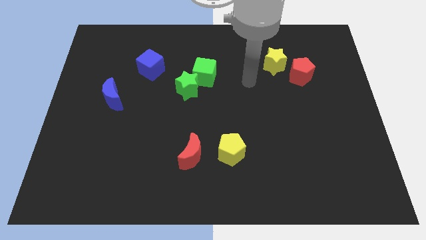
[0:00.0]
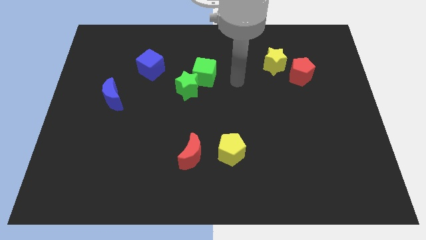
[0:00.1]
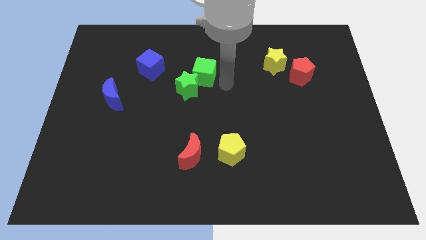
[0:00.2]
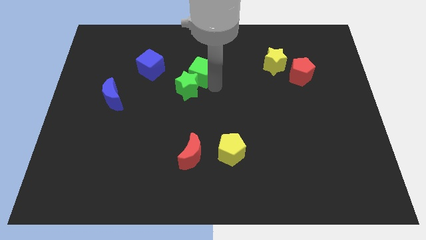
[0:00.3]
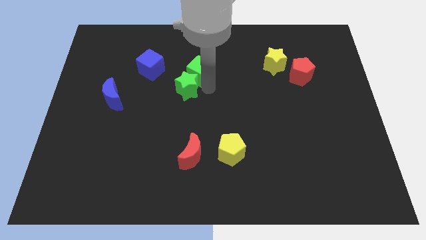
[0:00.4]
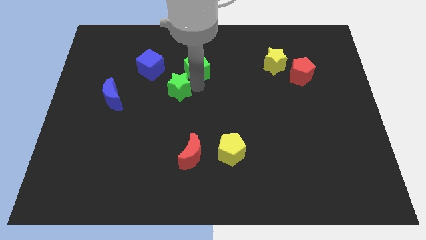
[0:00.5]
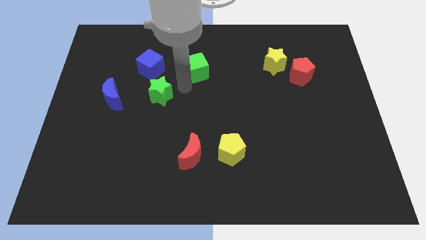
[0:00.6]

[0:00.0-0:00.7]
pull the green cube apart from the green star

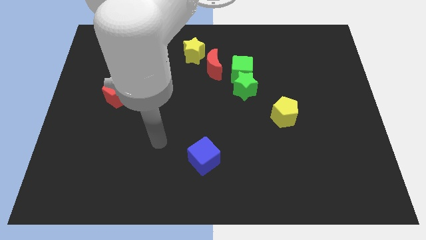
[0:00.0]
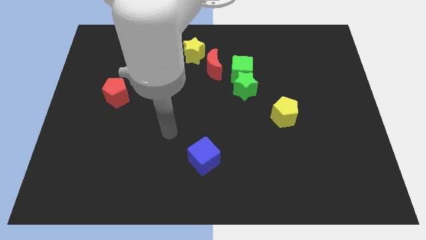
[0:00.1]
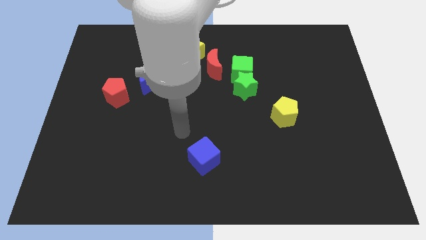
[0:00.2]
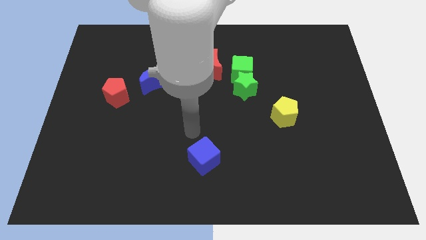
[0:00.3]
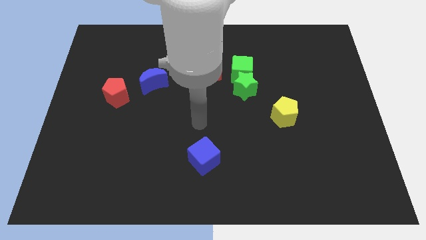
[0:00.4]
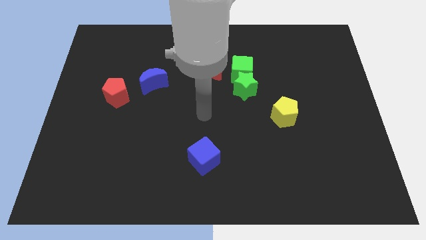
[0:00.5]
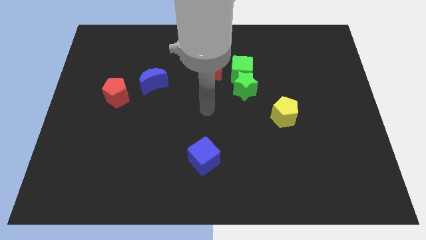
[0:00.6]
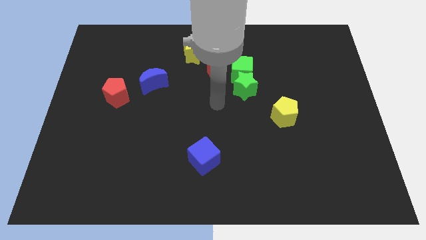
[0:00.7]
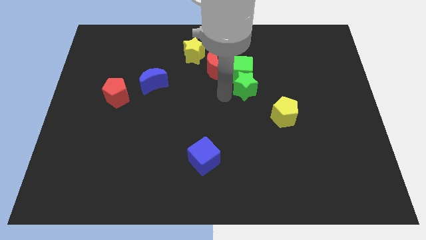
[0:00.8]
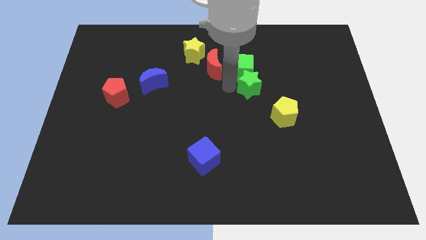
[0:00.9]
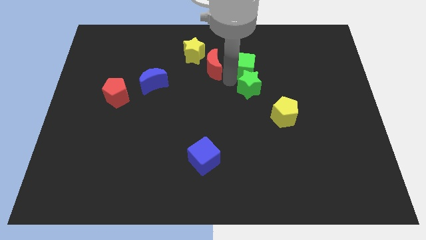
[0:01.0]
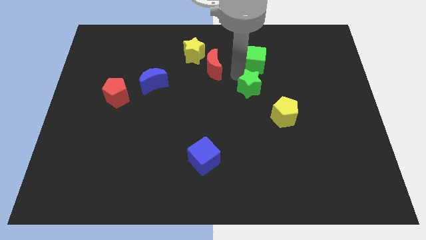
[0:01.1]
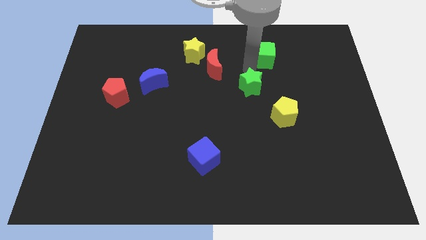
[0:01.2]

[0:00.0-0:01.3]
move the green star away from the green cube

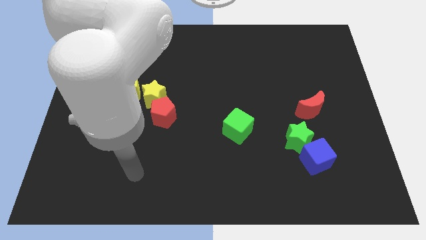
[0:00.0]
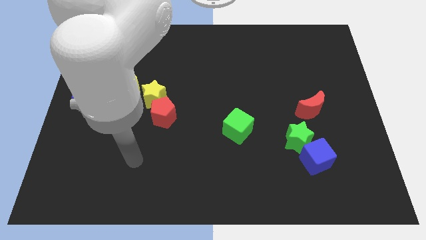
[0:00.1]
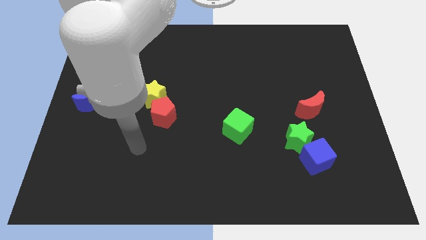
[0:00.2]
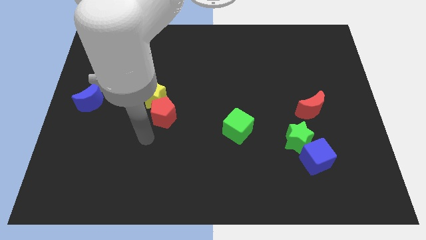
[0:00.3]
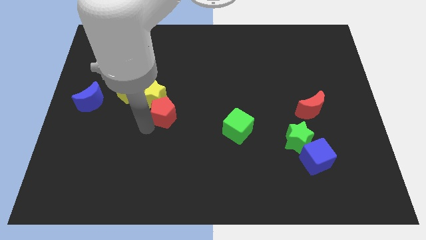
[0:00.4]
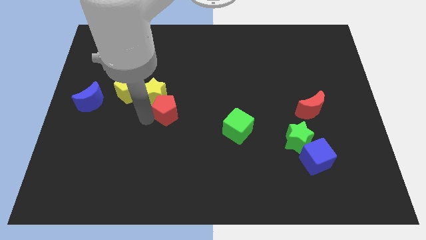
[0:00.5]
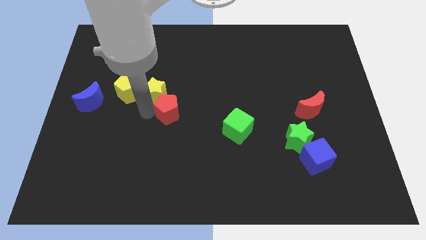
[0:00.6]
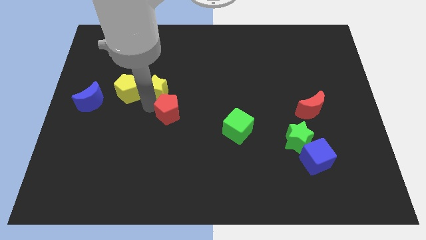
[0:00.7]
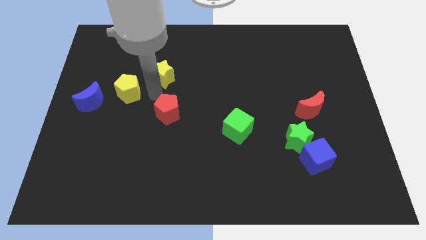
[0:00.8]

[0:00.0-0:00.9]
separate the red pentagon from the yellow star

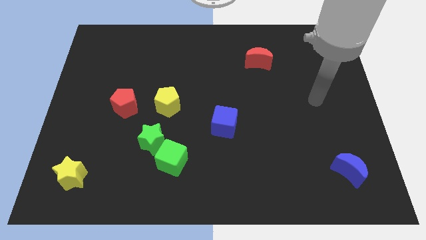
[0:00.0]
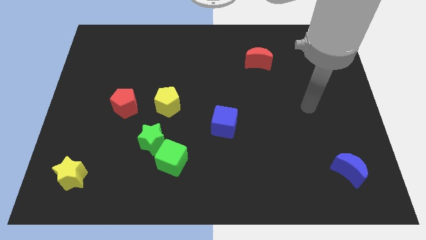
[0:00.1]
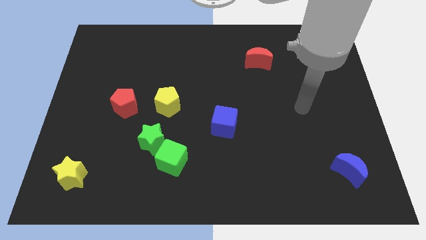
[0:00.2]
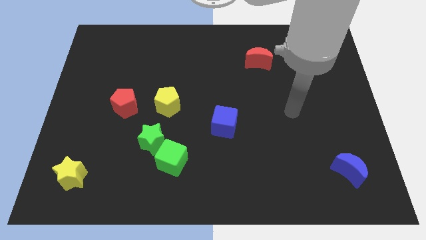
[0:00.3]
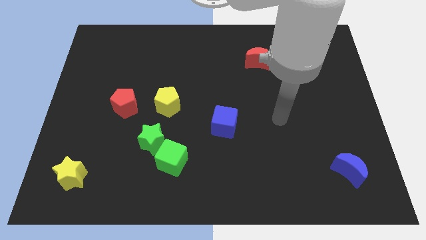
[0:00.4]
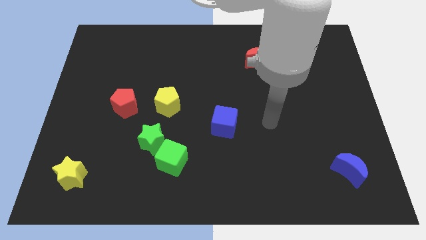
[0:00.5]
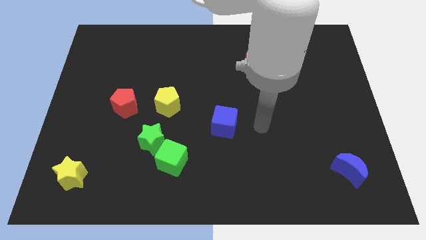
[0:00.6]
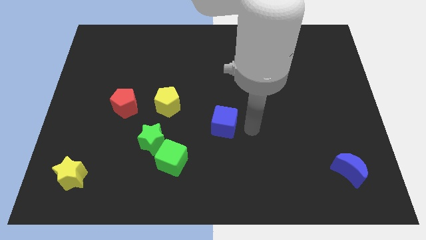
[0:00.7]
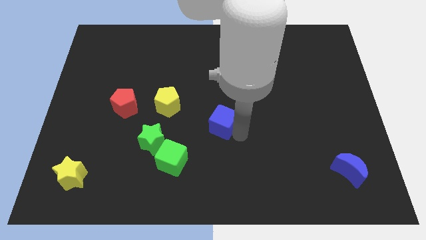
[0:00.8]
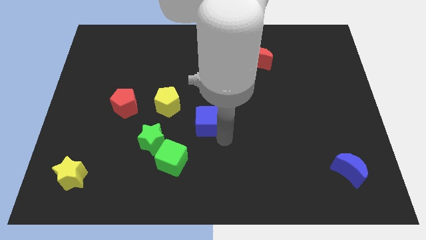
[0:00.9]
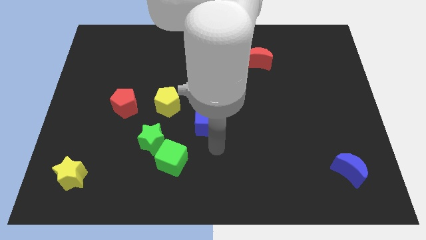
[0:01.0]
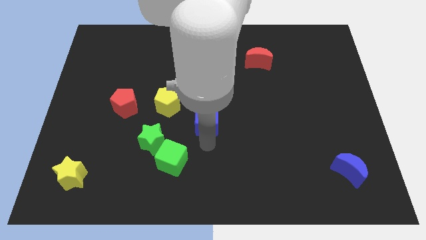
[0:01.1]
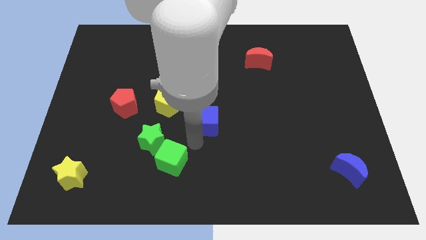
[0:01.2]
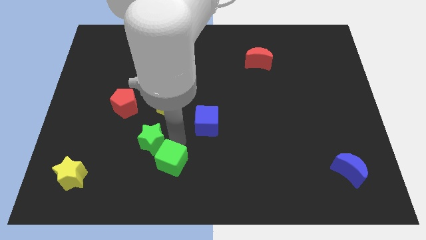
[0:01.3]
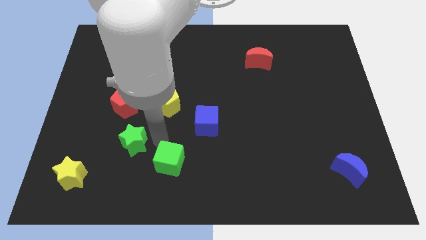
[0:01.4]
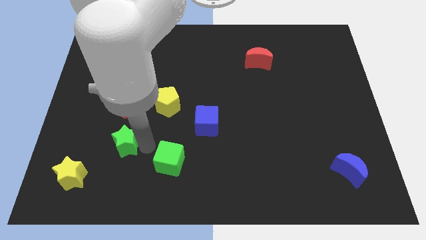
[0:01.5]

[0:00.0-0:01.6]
move the green cube away from the green star

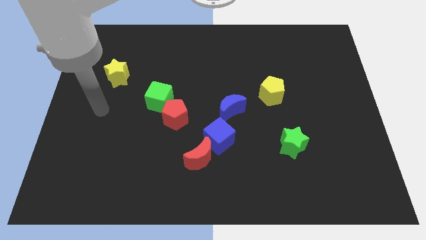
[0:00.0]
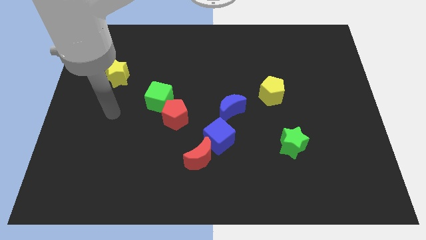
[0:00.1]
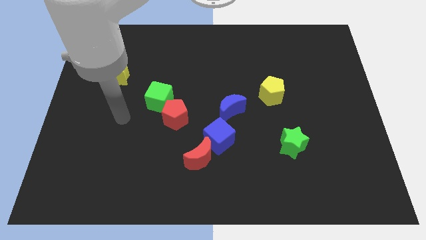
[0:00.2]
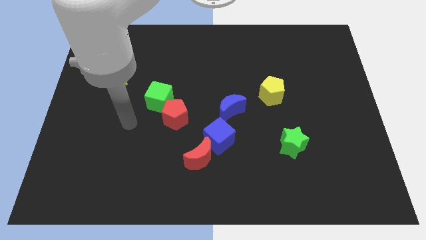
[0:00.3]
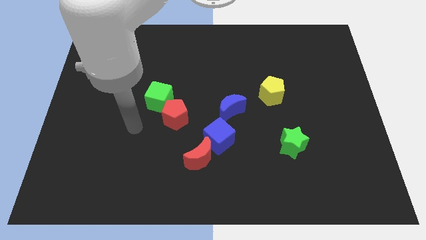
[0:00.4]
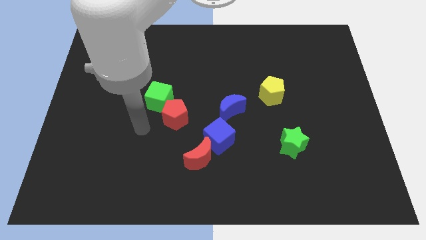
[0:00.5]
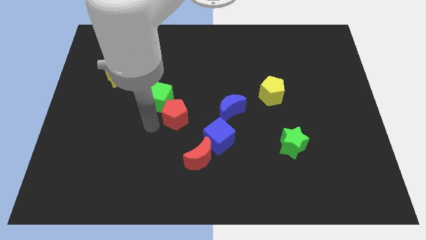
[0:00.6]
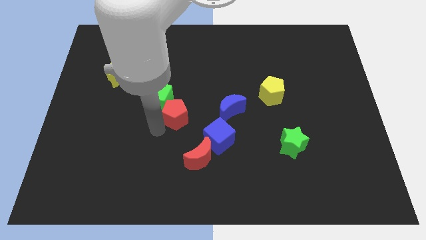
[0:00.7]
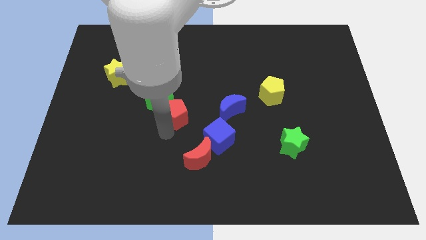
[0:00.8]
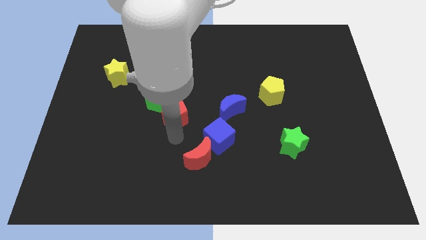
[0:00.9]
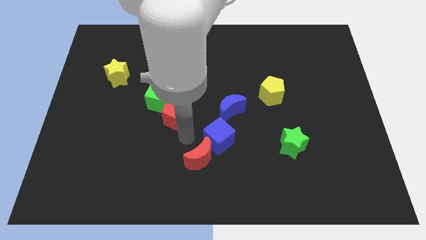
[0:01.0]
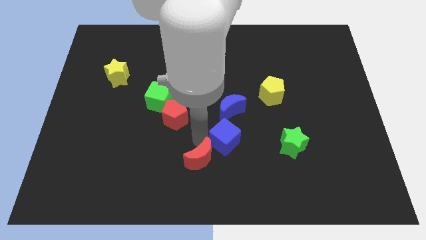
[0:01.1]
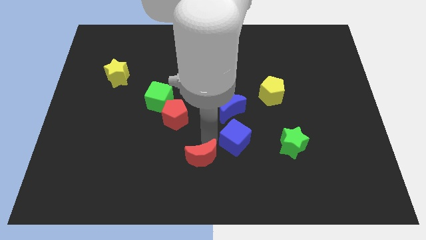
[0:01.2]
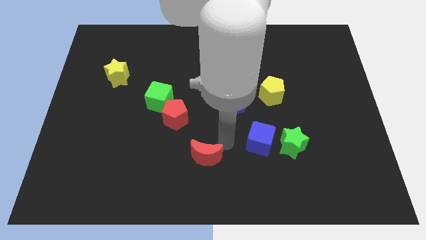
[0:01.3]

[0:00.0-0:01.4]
separate the red moon from the blue cube

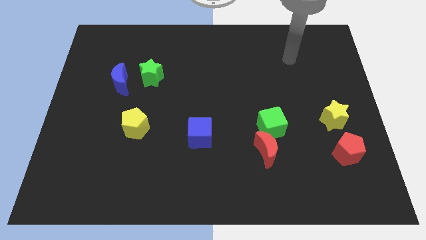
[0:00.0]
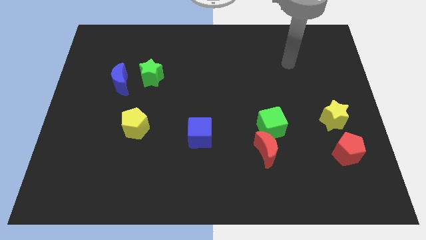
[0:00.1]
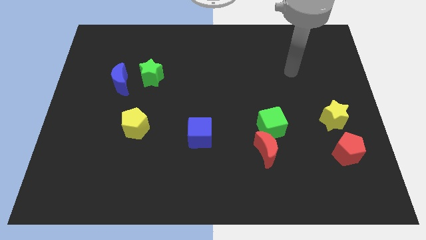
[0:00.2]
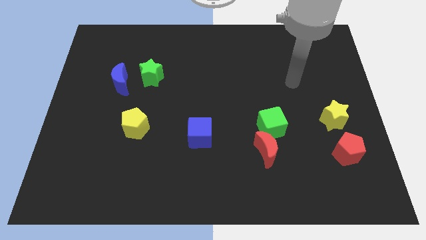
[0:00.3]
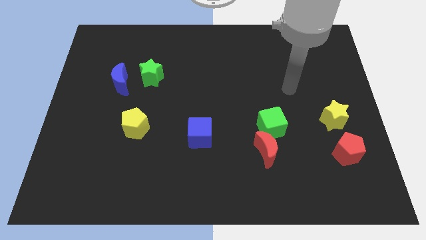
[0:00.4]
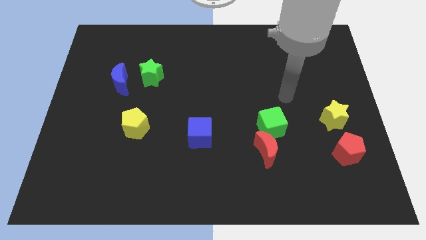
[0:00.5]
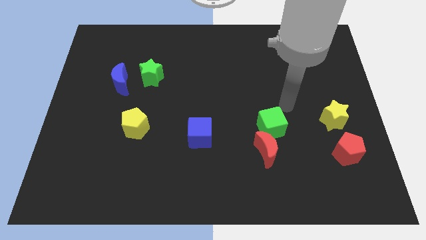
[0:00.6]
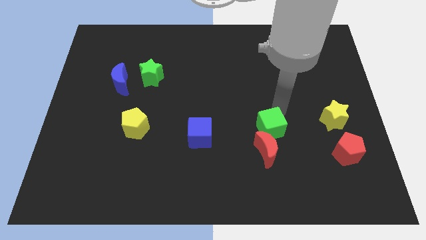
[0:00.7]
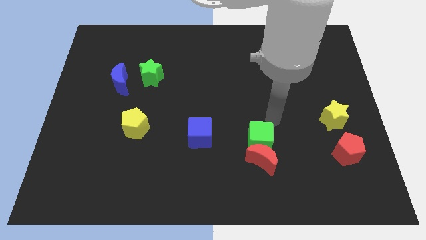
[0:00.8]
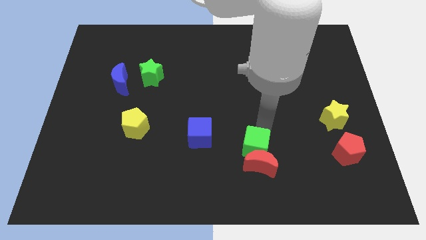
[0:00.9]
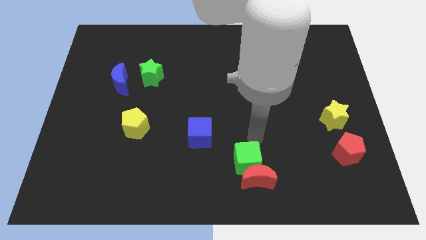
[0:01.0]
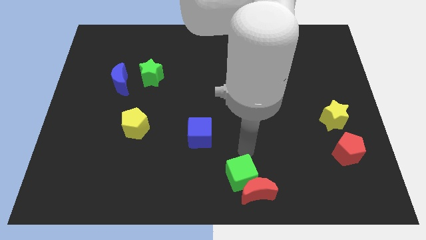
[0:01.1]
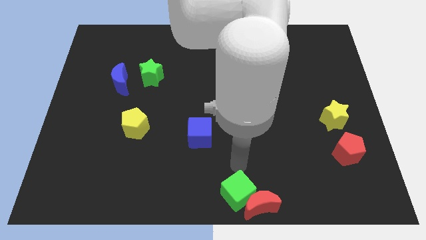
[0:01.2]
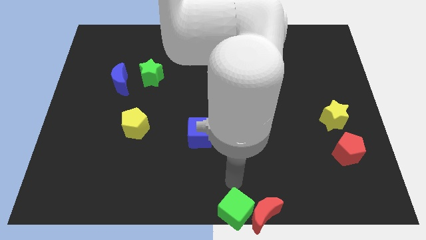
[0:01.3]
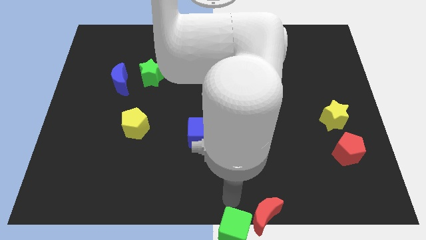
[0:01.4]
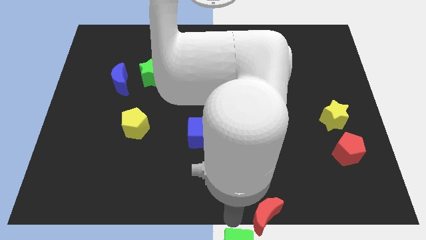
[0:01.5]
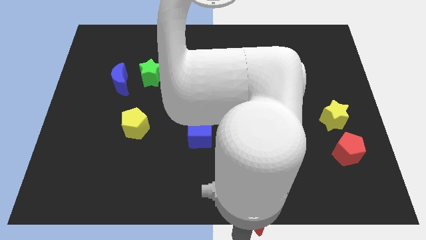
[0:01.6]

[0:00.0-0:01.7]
move the red moon away from the green cube

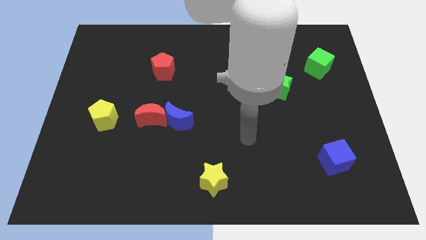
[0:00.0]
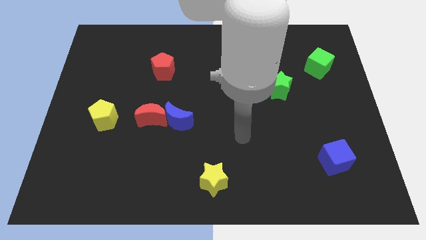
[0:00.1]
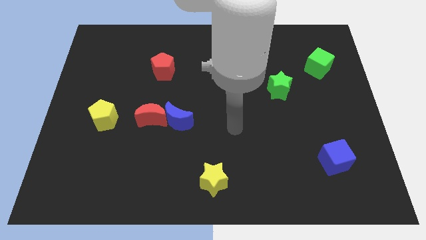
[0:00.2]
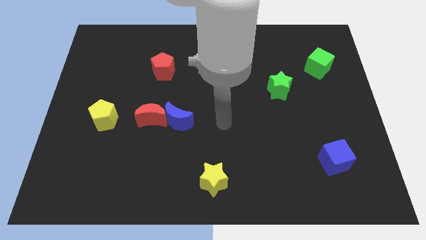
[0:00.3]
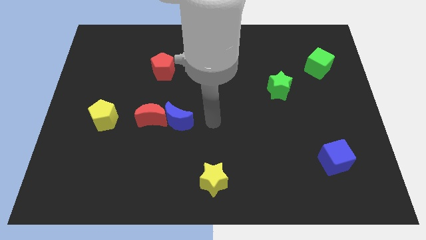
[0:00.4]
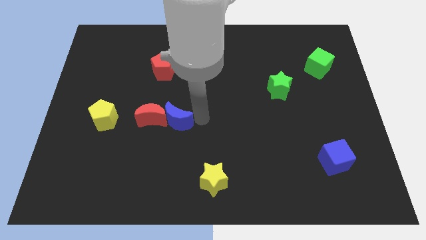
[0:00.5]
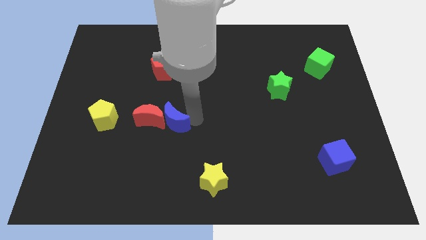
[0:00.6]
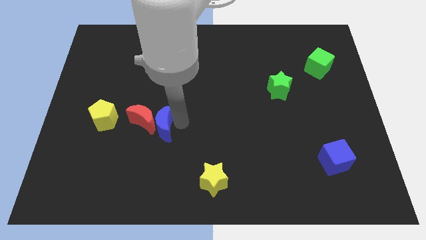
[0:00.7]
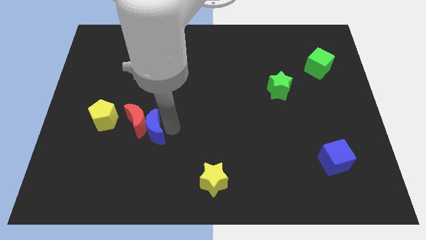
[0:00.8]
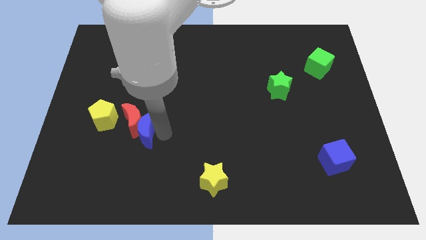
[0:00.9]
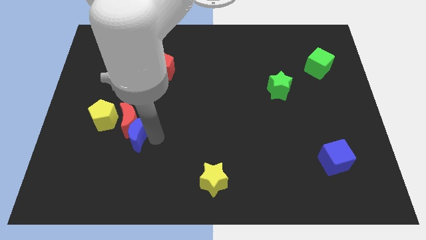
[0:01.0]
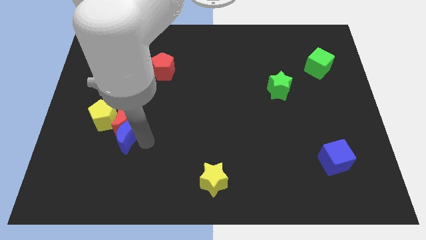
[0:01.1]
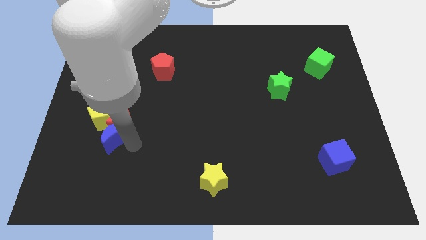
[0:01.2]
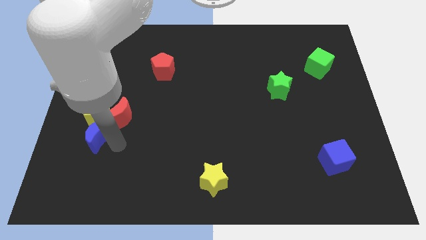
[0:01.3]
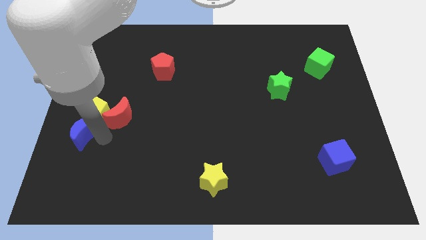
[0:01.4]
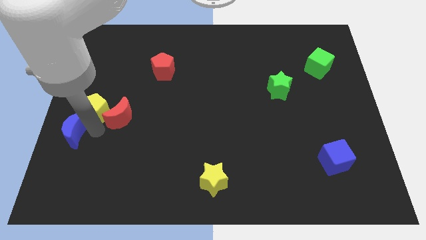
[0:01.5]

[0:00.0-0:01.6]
move the red moon away from the blue moon
